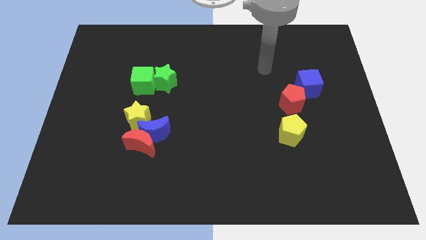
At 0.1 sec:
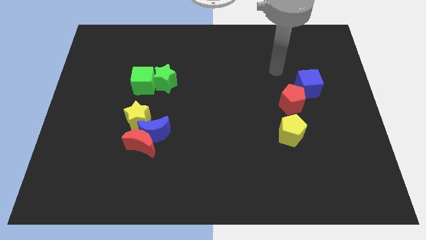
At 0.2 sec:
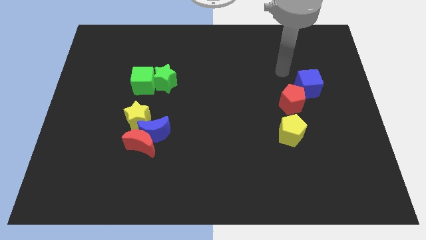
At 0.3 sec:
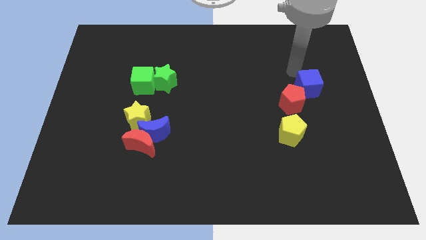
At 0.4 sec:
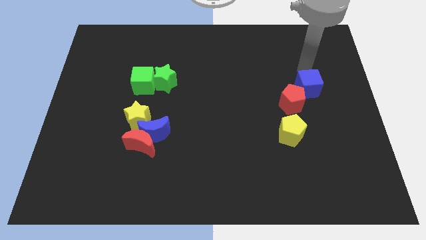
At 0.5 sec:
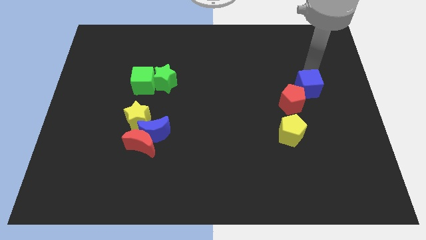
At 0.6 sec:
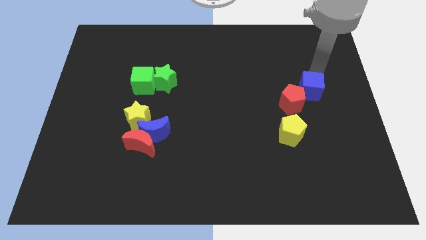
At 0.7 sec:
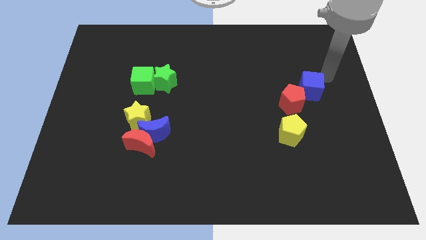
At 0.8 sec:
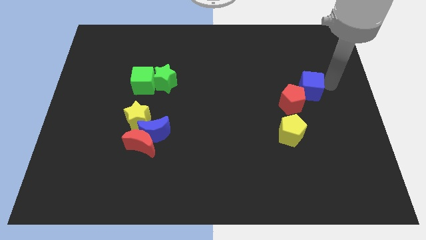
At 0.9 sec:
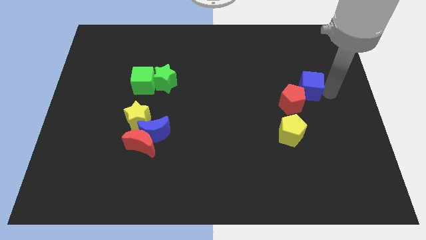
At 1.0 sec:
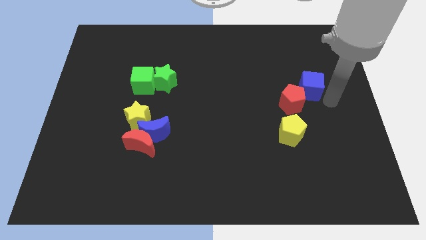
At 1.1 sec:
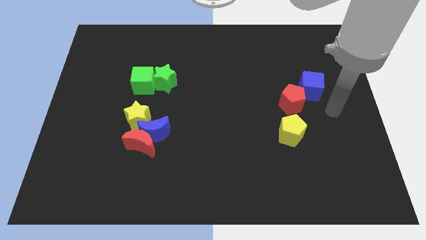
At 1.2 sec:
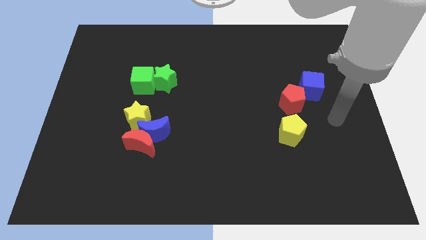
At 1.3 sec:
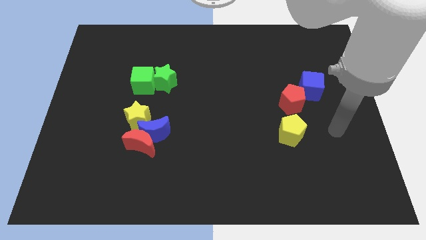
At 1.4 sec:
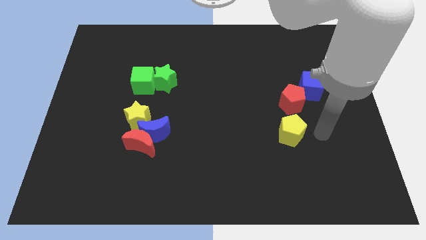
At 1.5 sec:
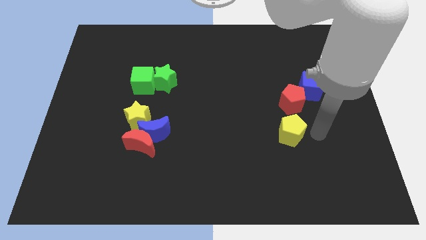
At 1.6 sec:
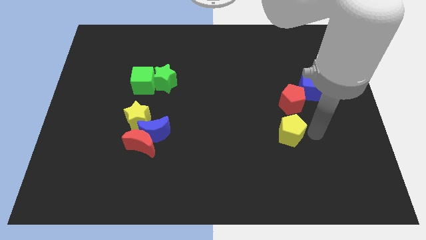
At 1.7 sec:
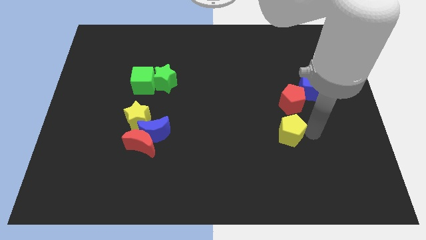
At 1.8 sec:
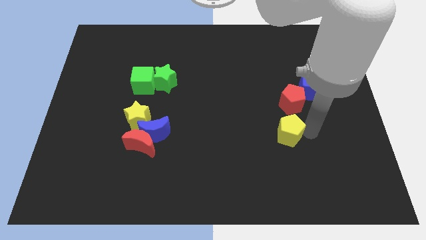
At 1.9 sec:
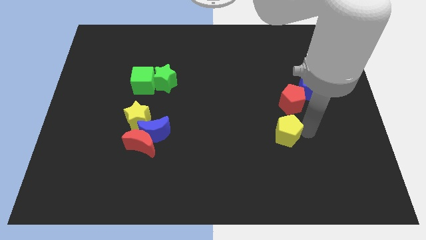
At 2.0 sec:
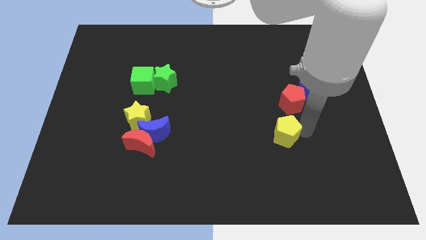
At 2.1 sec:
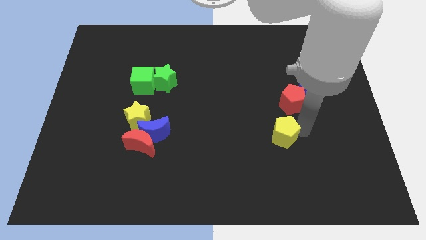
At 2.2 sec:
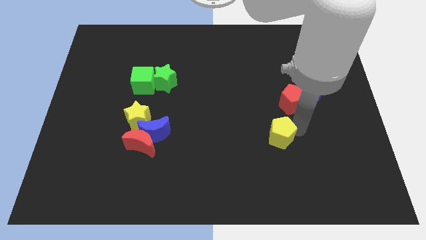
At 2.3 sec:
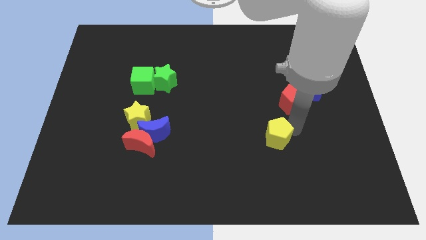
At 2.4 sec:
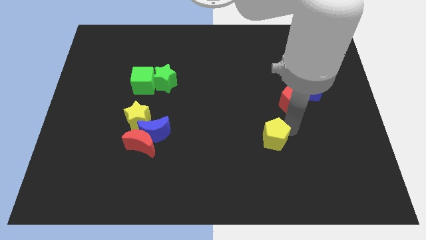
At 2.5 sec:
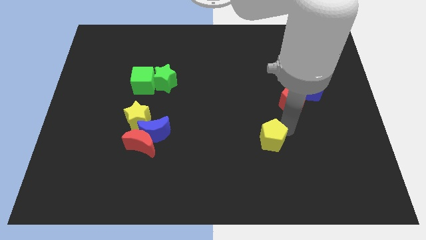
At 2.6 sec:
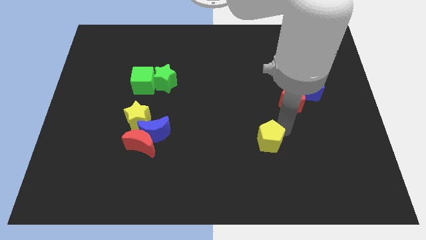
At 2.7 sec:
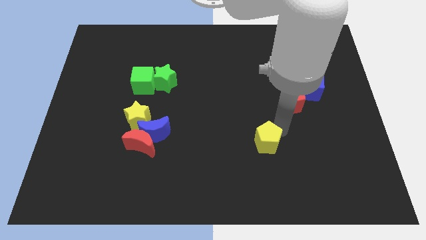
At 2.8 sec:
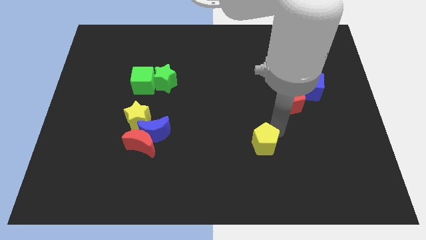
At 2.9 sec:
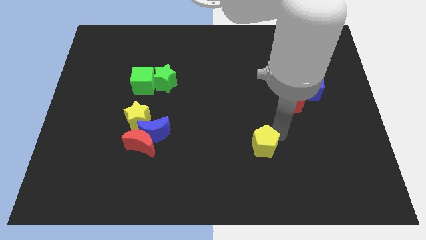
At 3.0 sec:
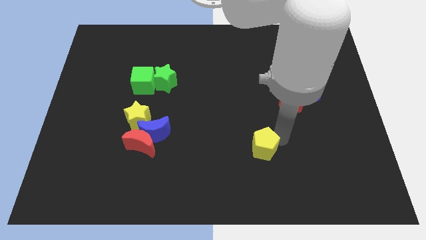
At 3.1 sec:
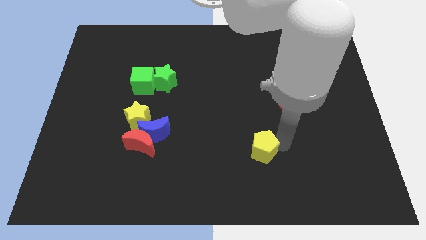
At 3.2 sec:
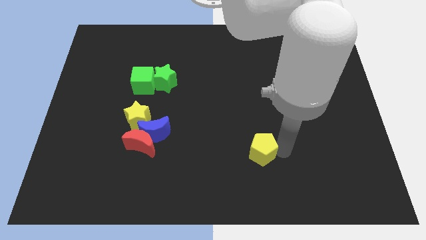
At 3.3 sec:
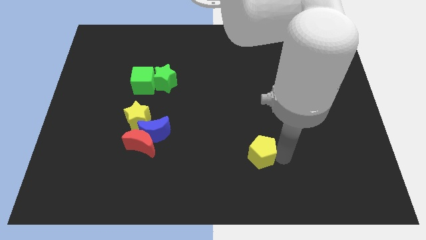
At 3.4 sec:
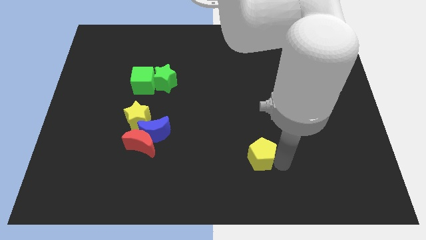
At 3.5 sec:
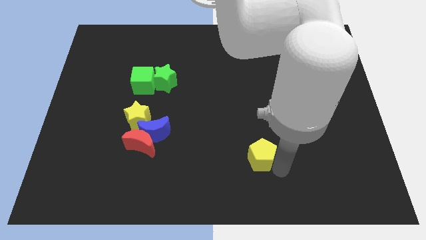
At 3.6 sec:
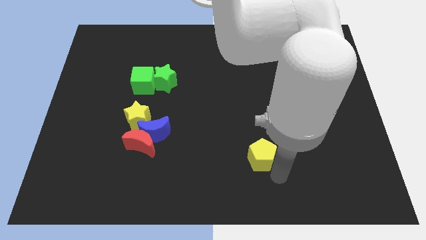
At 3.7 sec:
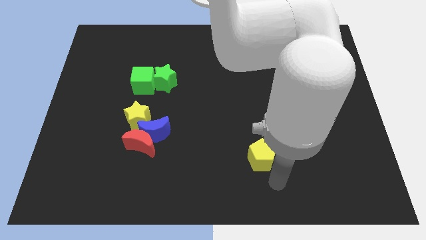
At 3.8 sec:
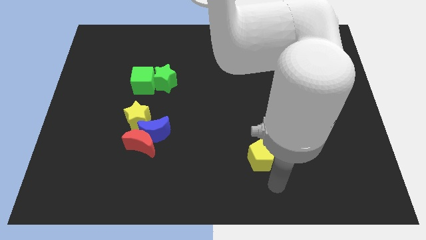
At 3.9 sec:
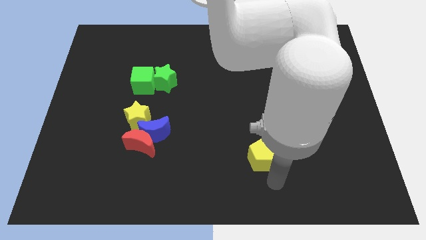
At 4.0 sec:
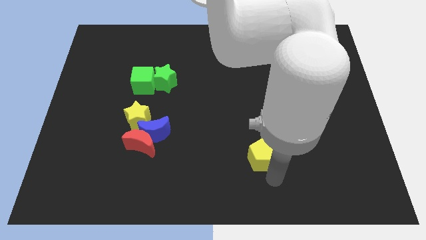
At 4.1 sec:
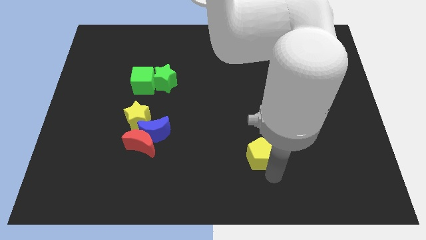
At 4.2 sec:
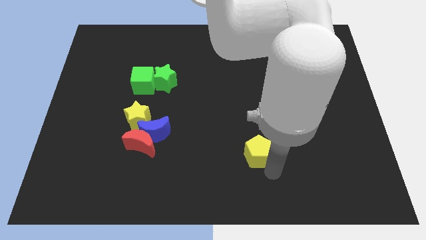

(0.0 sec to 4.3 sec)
move the yellow pentagon left a little bit

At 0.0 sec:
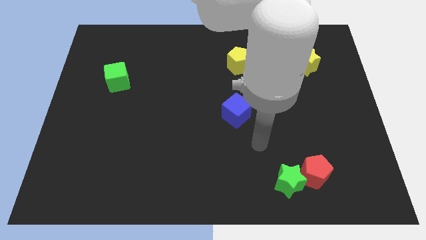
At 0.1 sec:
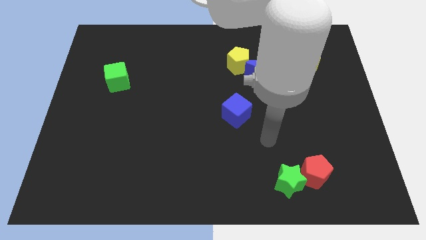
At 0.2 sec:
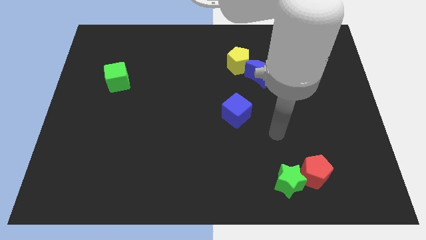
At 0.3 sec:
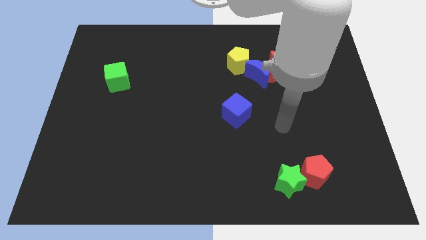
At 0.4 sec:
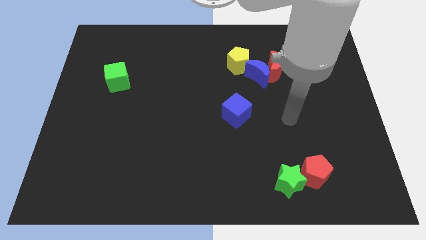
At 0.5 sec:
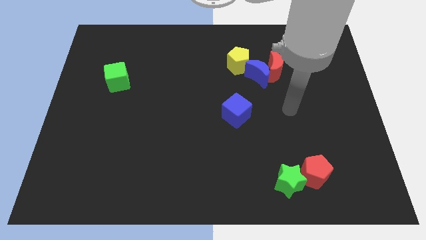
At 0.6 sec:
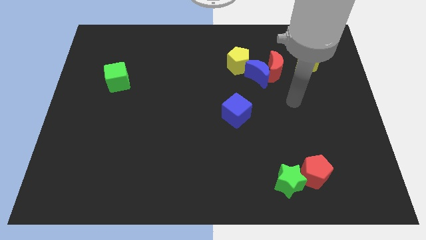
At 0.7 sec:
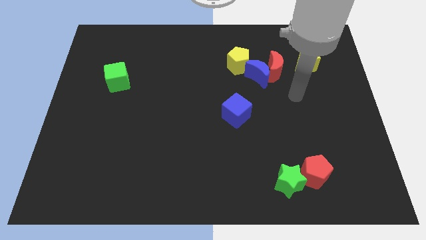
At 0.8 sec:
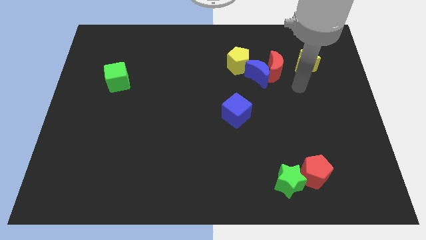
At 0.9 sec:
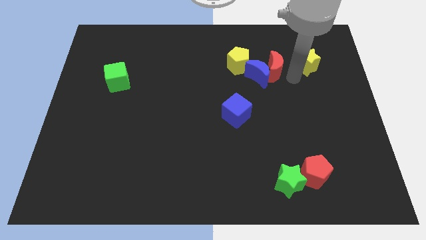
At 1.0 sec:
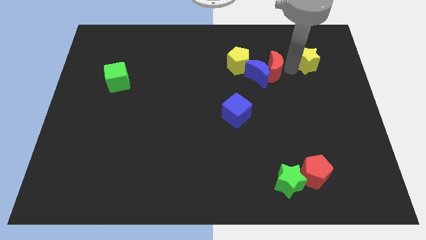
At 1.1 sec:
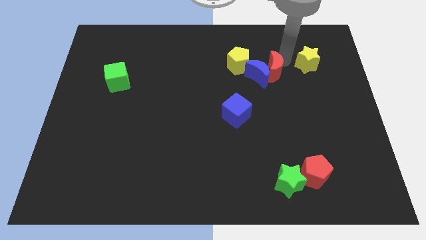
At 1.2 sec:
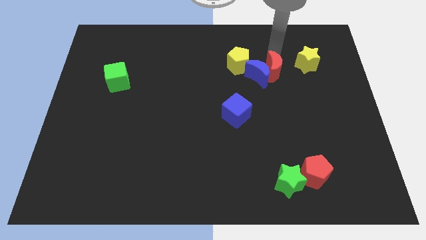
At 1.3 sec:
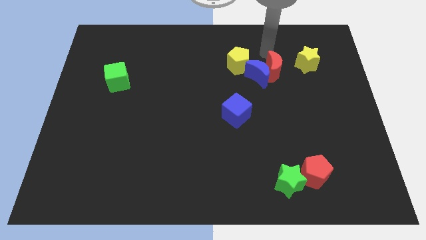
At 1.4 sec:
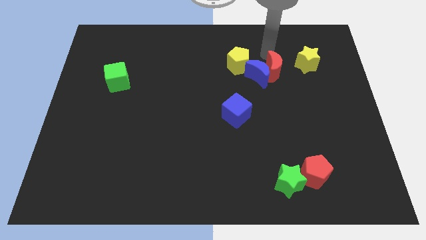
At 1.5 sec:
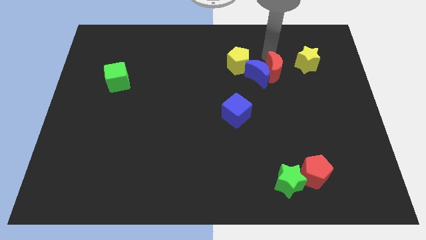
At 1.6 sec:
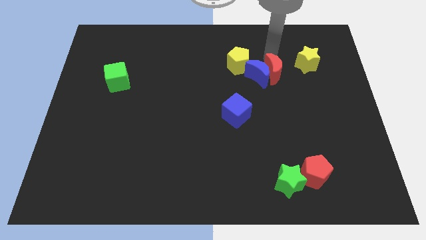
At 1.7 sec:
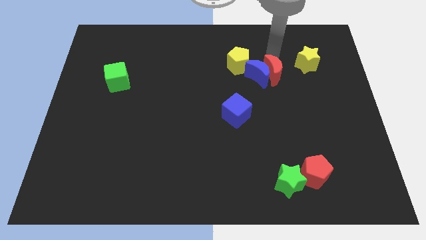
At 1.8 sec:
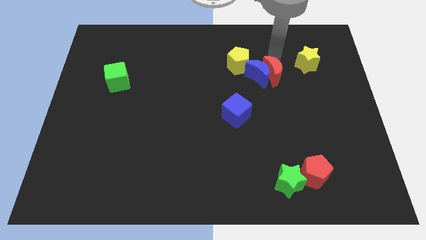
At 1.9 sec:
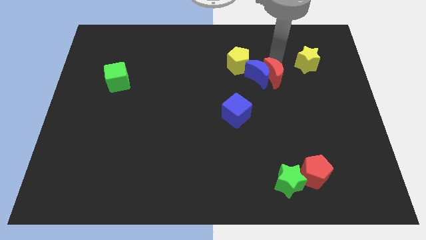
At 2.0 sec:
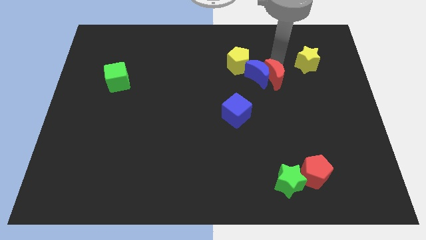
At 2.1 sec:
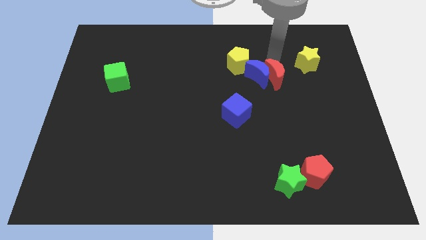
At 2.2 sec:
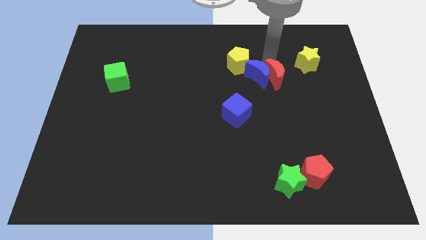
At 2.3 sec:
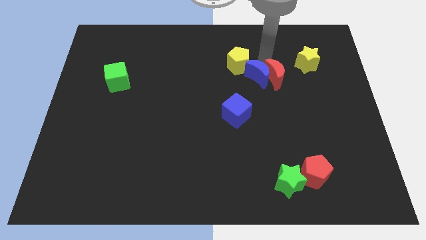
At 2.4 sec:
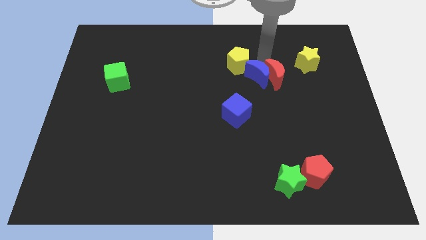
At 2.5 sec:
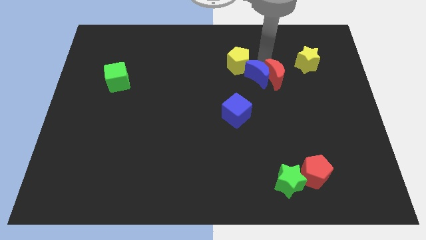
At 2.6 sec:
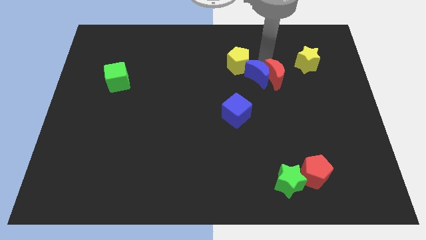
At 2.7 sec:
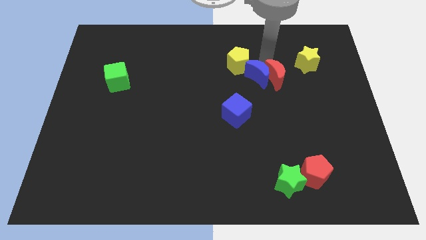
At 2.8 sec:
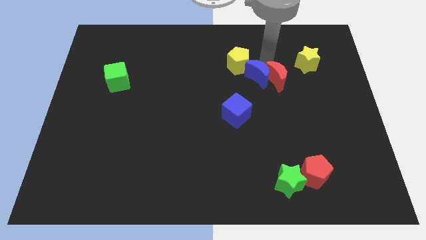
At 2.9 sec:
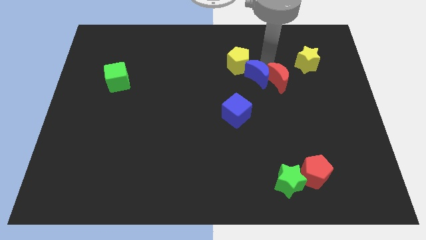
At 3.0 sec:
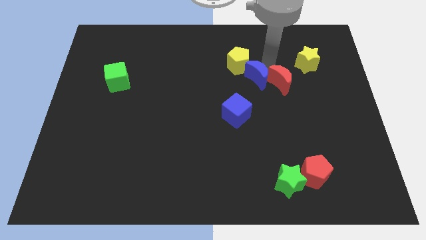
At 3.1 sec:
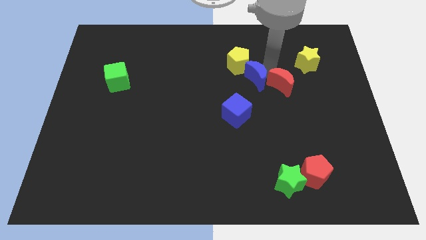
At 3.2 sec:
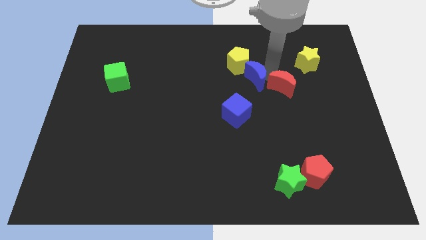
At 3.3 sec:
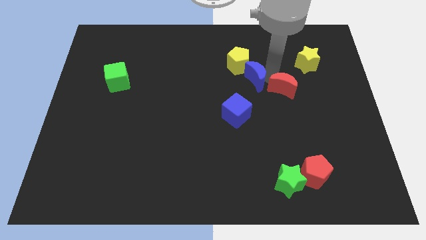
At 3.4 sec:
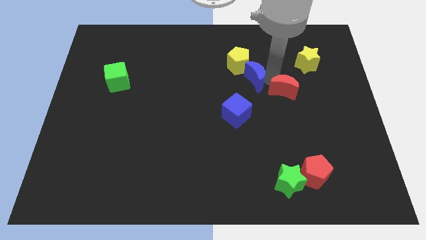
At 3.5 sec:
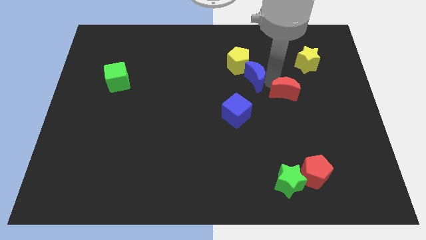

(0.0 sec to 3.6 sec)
move the red moon downwards a bit

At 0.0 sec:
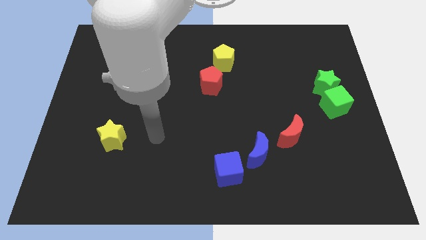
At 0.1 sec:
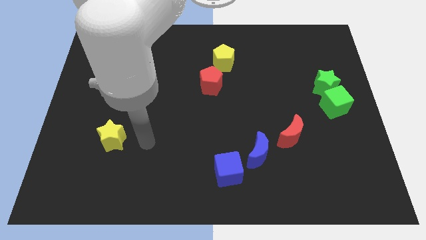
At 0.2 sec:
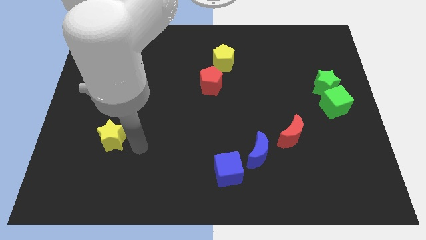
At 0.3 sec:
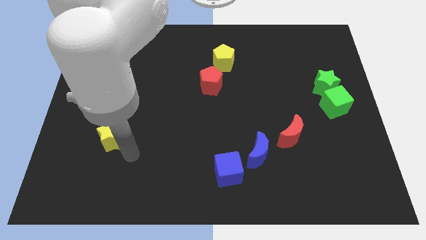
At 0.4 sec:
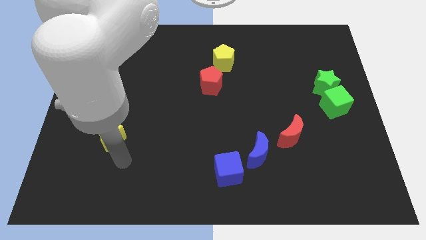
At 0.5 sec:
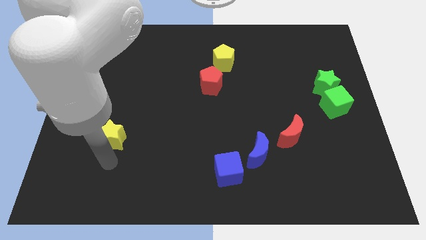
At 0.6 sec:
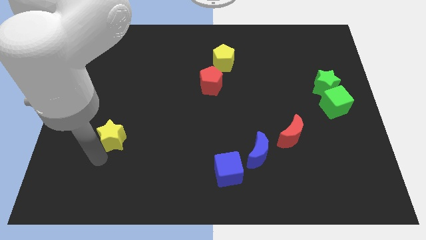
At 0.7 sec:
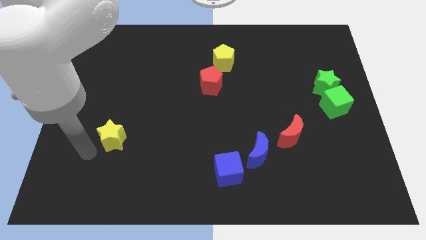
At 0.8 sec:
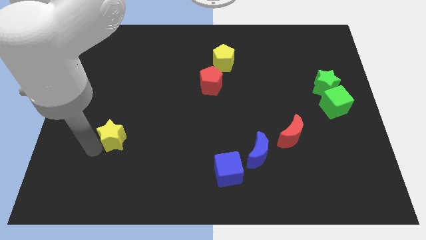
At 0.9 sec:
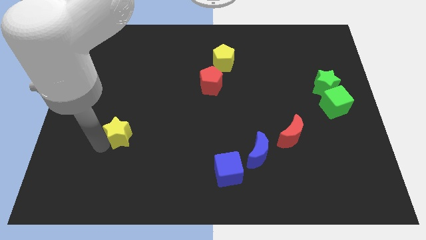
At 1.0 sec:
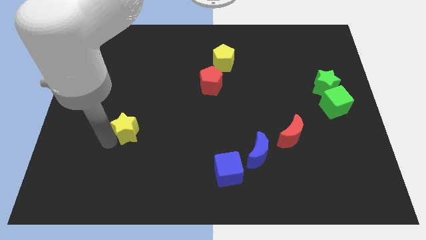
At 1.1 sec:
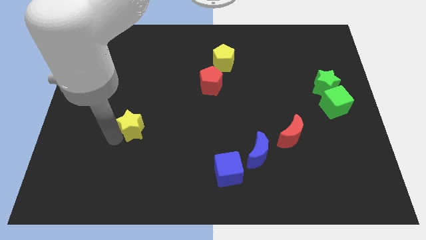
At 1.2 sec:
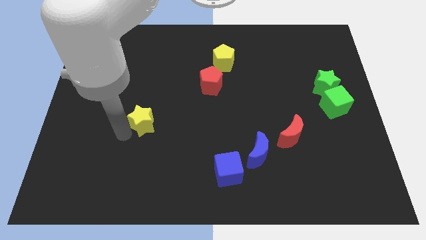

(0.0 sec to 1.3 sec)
push the yellow star a little bit upwards and to the right diagonally
